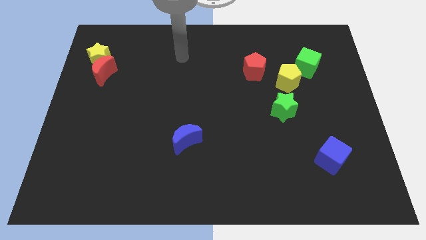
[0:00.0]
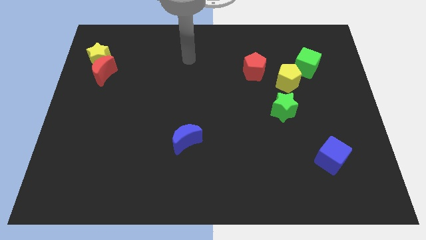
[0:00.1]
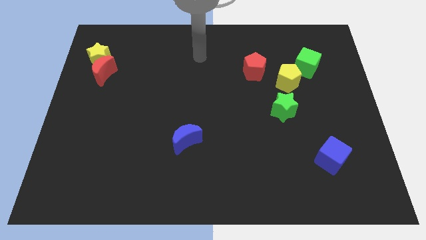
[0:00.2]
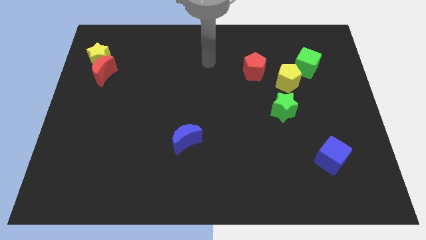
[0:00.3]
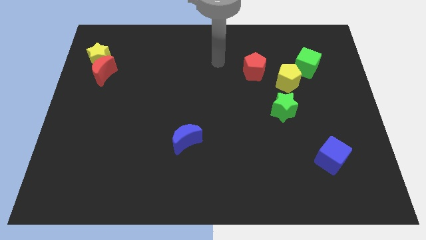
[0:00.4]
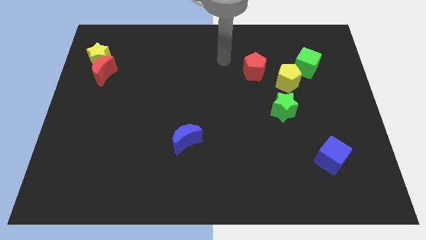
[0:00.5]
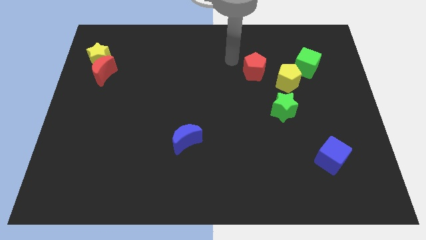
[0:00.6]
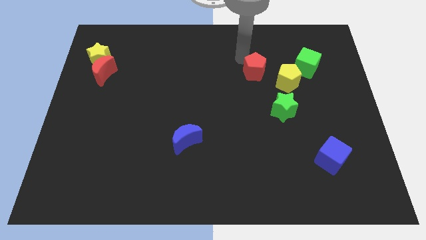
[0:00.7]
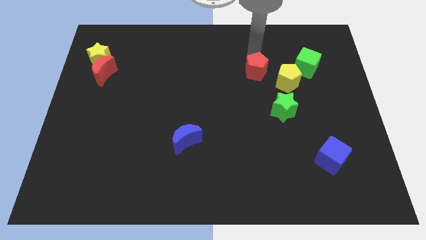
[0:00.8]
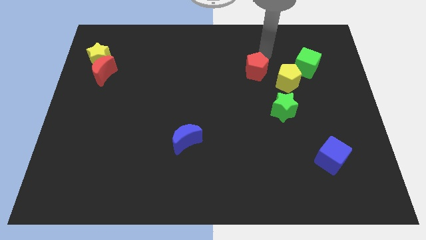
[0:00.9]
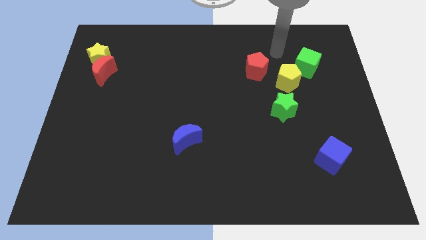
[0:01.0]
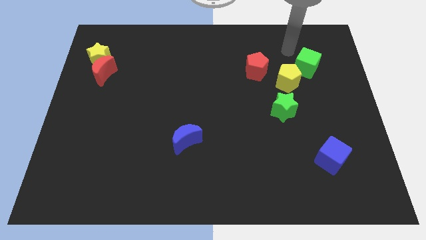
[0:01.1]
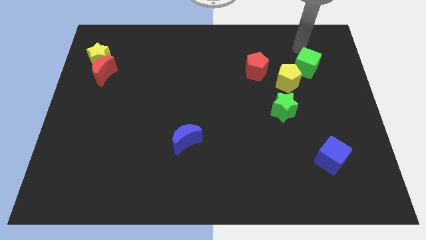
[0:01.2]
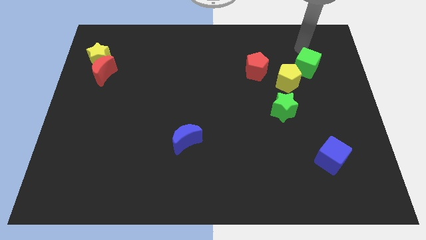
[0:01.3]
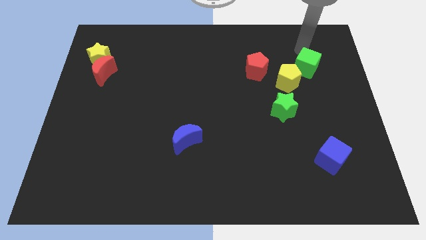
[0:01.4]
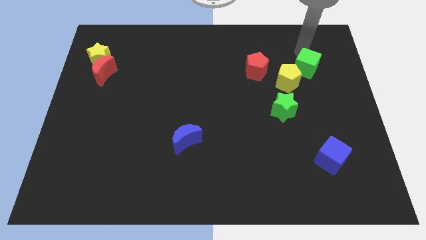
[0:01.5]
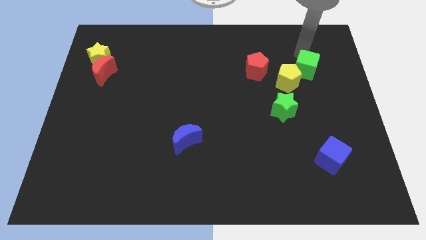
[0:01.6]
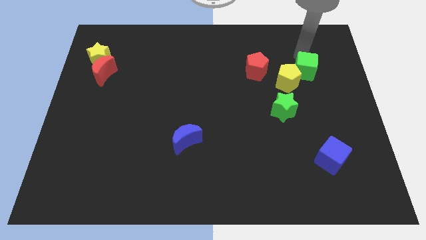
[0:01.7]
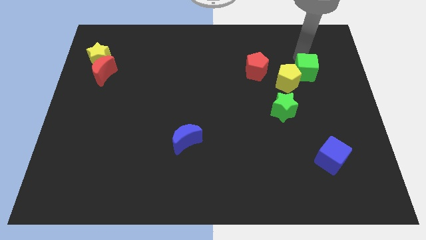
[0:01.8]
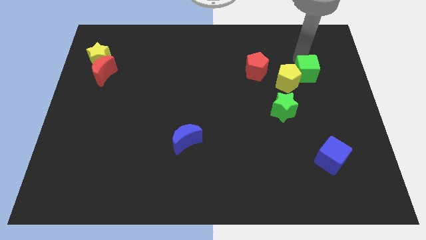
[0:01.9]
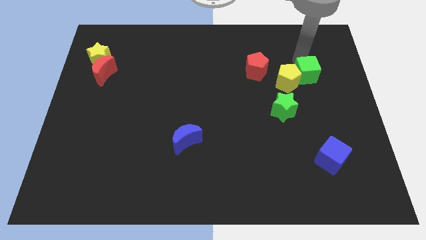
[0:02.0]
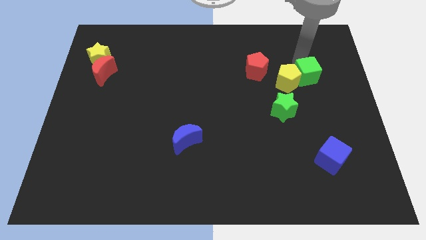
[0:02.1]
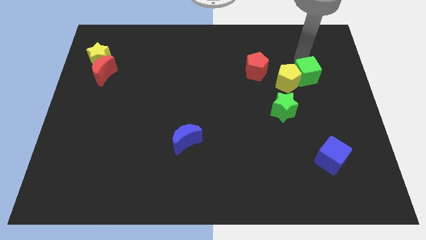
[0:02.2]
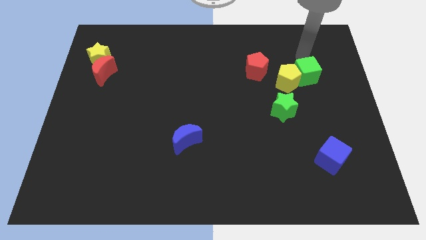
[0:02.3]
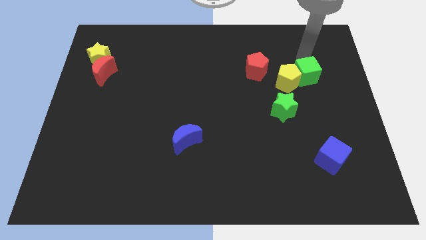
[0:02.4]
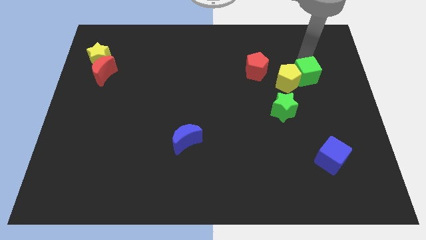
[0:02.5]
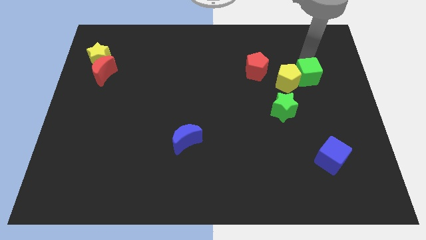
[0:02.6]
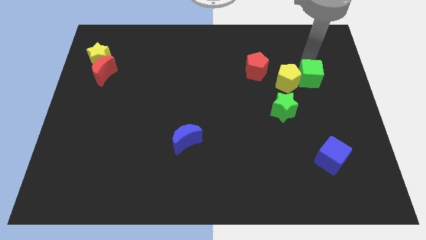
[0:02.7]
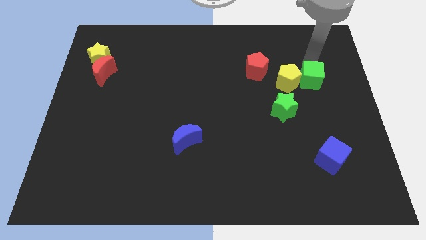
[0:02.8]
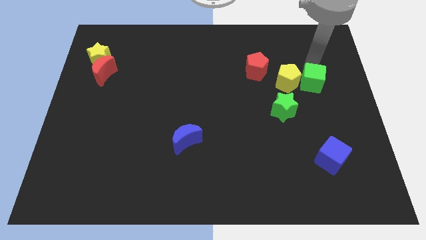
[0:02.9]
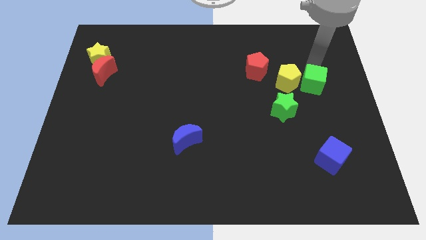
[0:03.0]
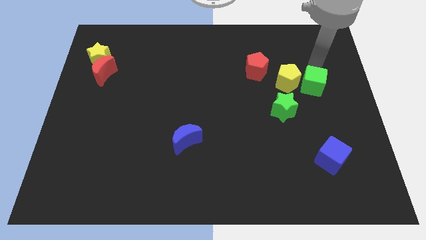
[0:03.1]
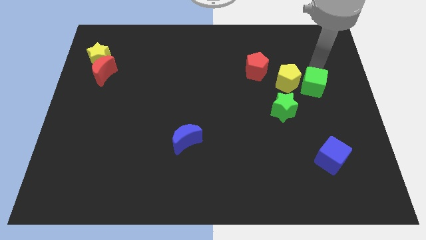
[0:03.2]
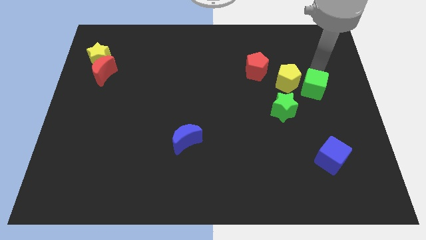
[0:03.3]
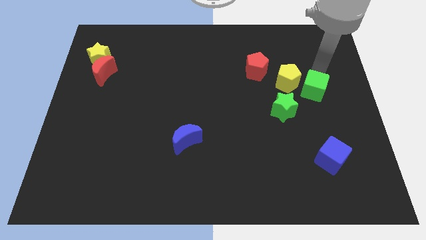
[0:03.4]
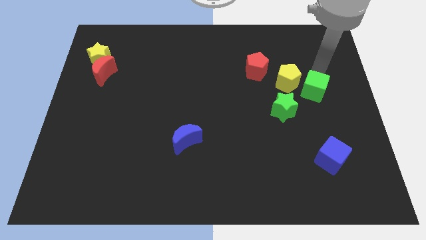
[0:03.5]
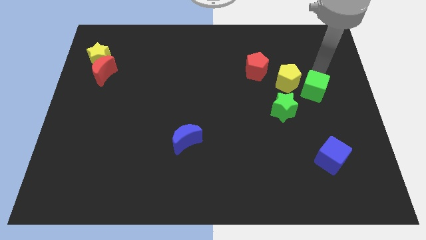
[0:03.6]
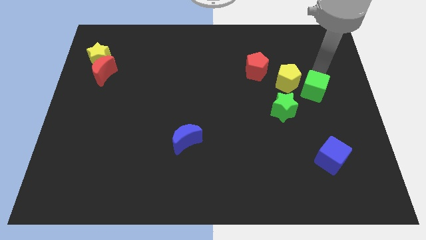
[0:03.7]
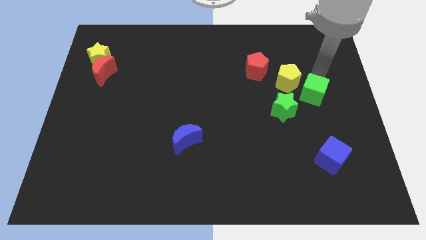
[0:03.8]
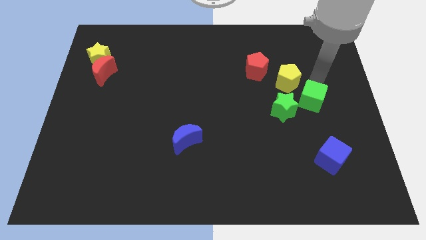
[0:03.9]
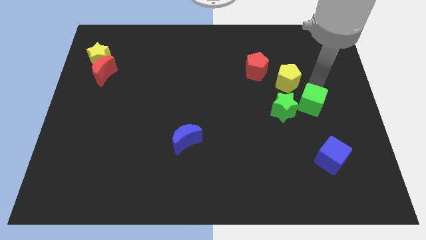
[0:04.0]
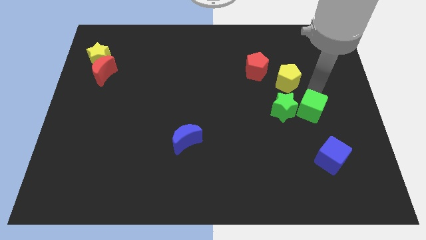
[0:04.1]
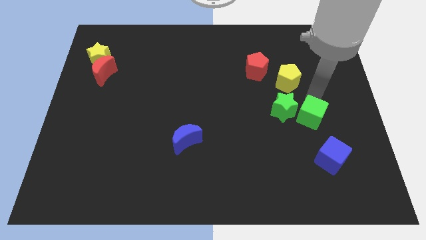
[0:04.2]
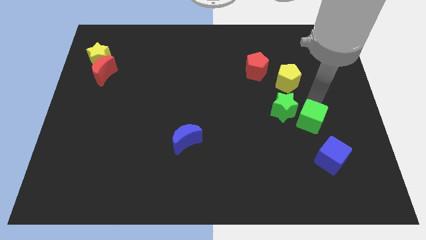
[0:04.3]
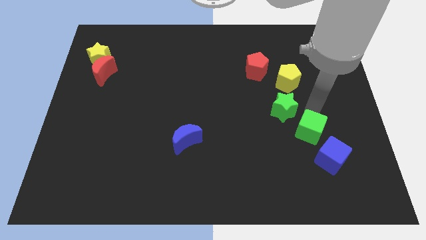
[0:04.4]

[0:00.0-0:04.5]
move the green cube downwards

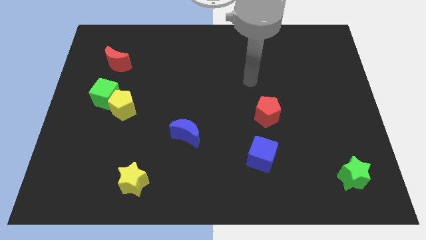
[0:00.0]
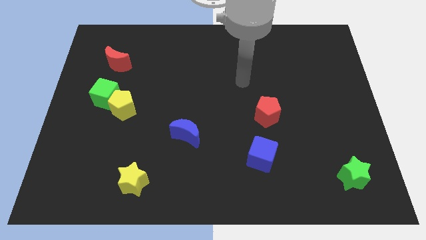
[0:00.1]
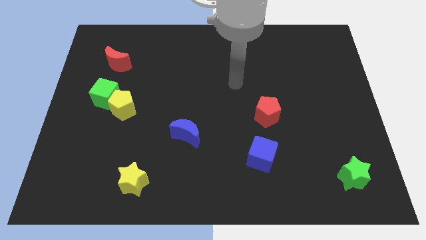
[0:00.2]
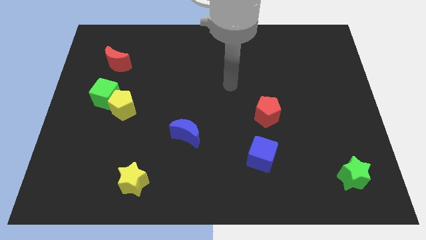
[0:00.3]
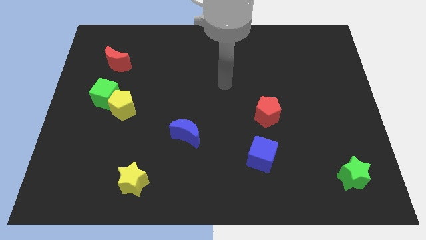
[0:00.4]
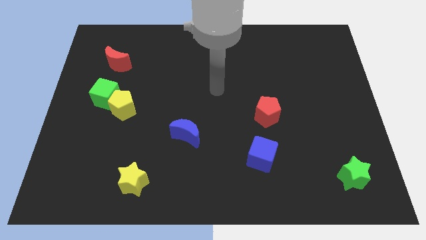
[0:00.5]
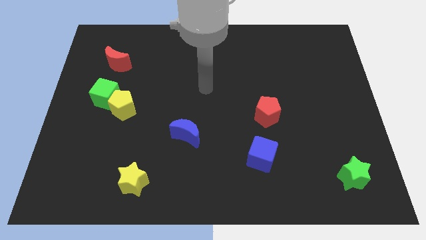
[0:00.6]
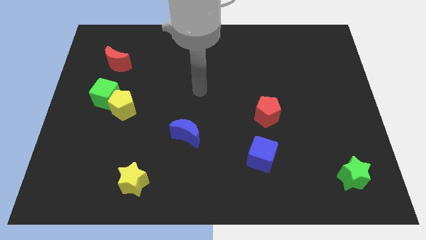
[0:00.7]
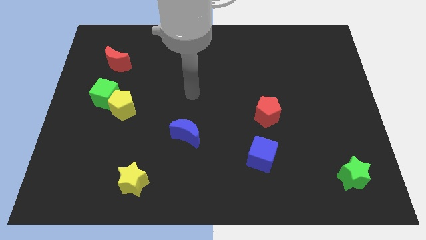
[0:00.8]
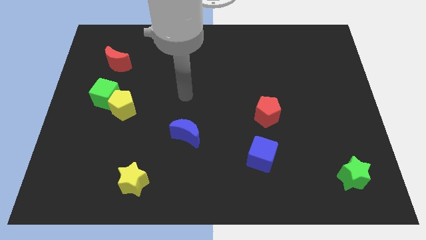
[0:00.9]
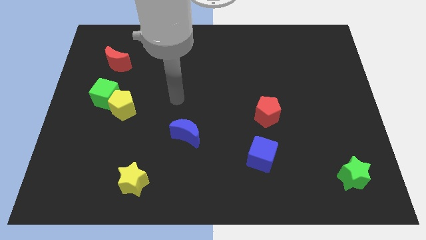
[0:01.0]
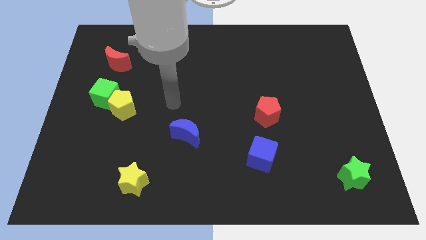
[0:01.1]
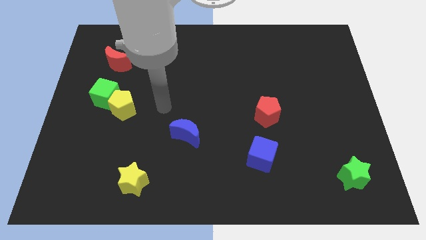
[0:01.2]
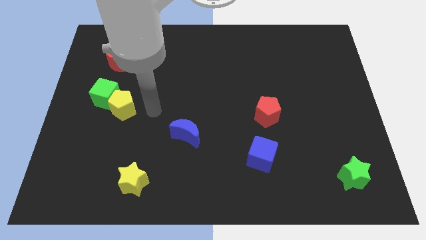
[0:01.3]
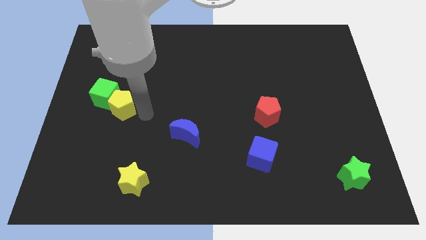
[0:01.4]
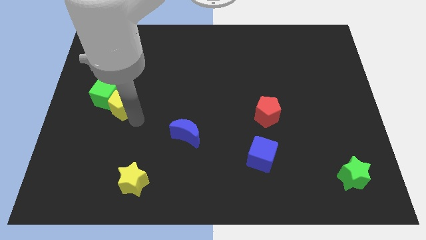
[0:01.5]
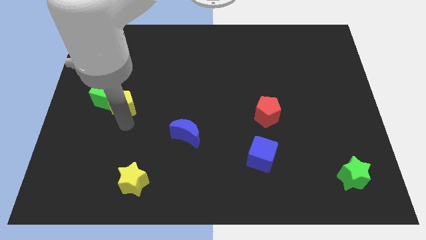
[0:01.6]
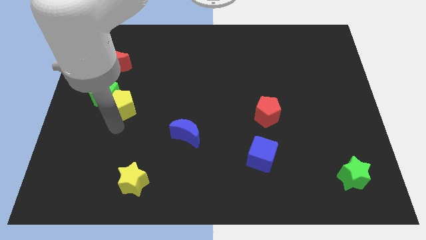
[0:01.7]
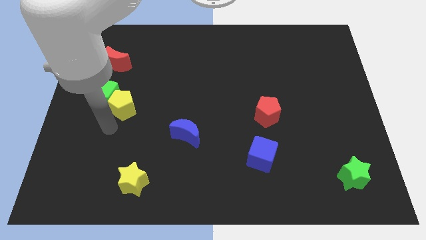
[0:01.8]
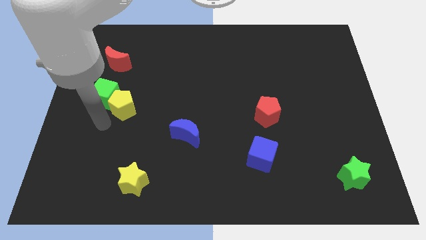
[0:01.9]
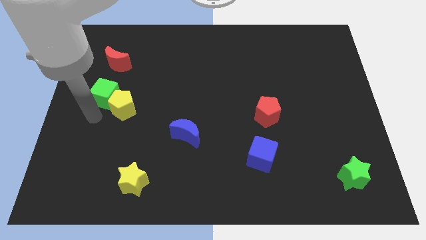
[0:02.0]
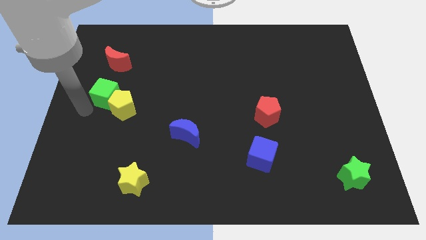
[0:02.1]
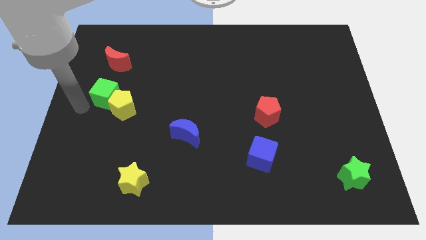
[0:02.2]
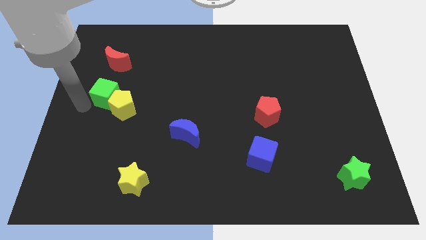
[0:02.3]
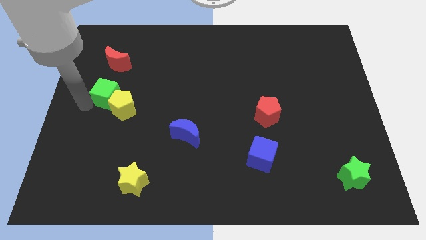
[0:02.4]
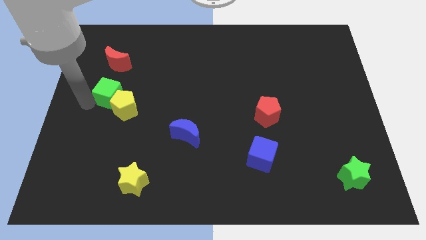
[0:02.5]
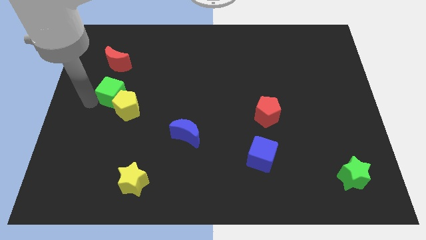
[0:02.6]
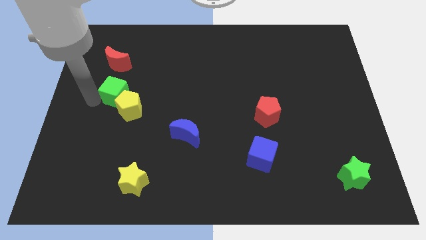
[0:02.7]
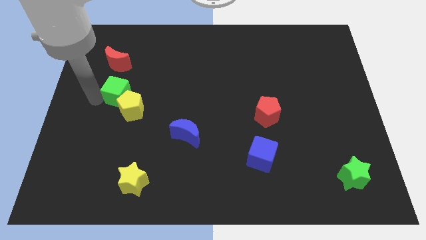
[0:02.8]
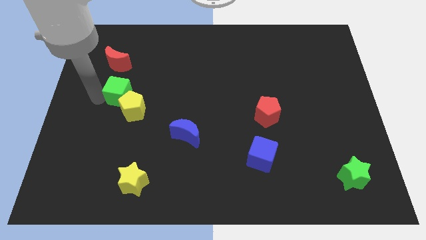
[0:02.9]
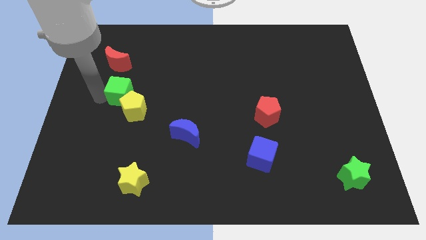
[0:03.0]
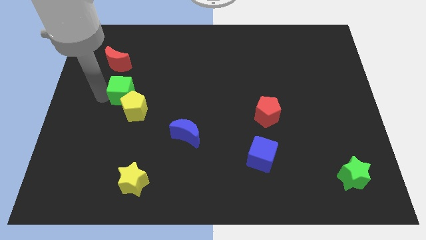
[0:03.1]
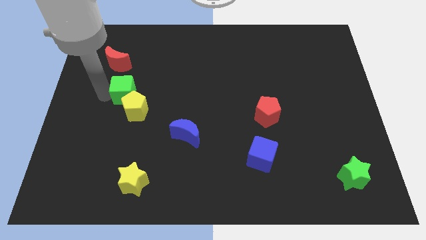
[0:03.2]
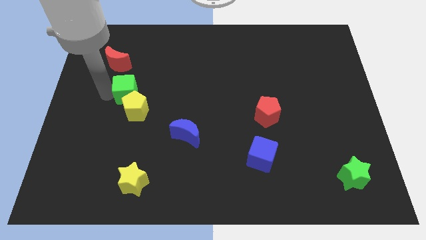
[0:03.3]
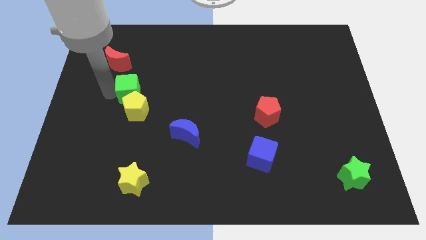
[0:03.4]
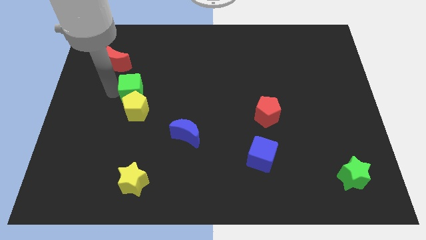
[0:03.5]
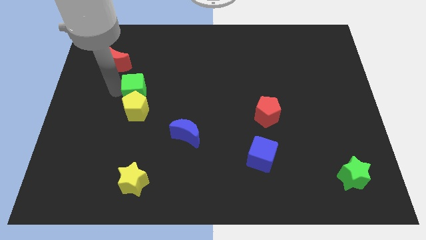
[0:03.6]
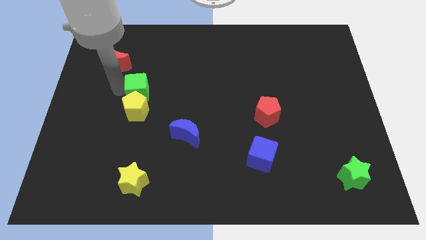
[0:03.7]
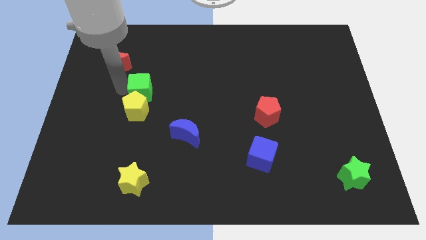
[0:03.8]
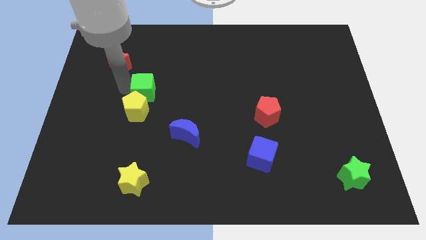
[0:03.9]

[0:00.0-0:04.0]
slide the green cube a little bit upwards and right diagonally
